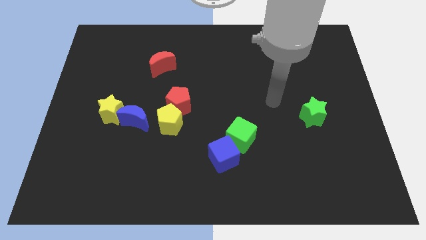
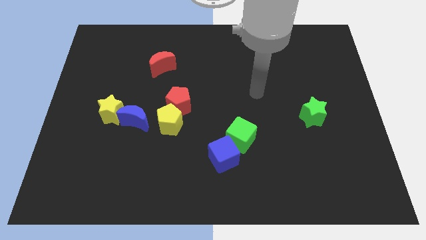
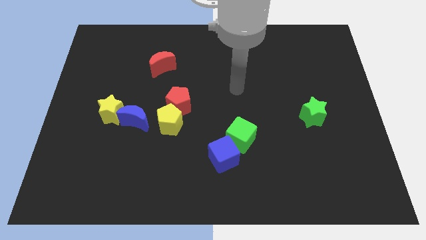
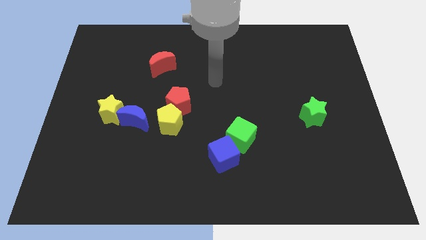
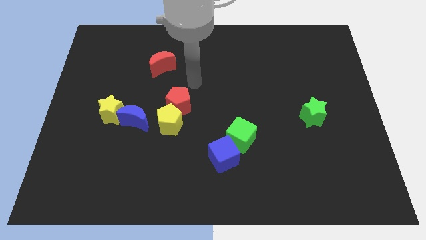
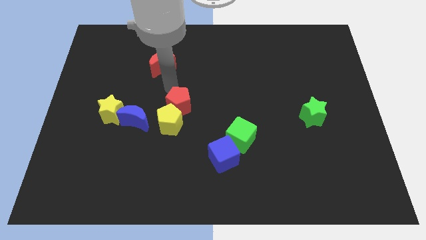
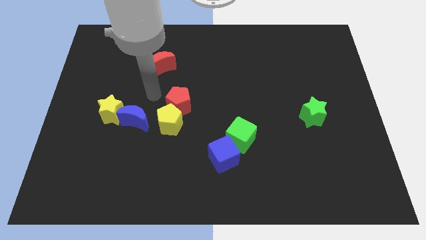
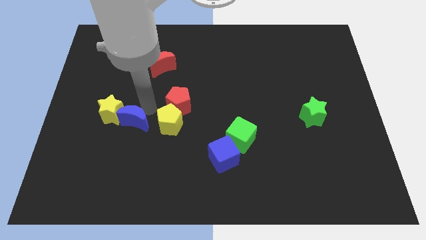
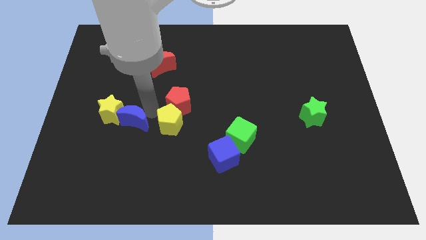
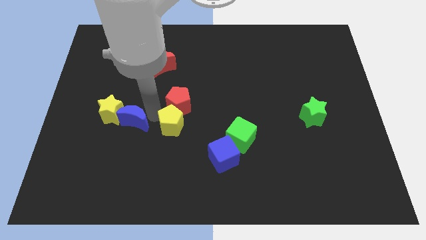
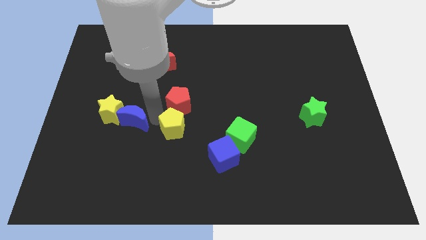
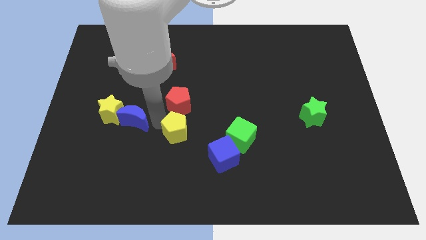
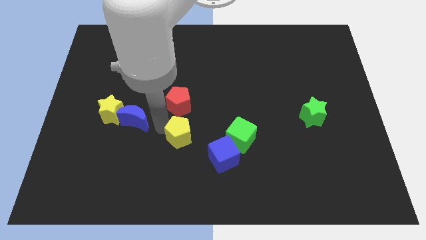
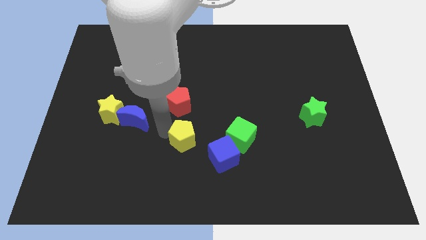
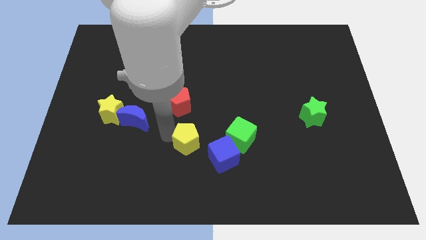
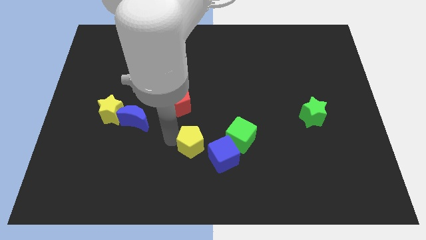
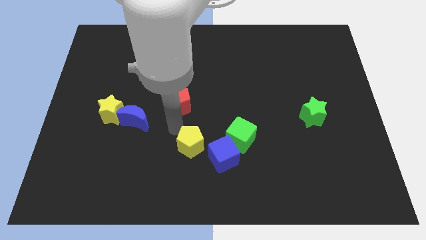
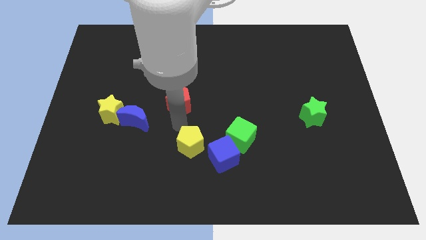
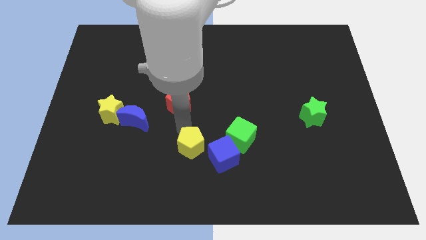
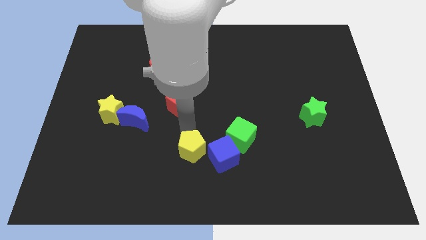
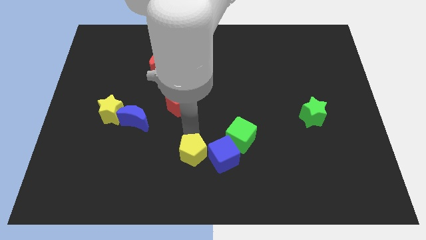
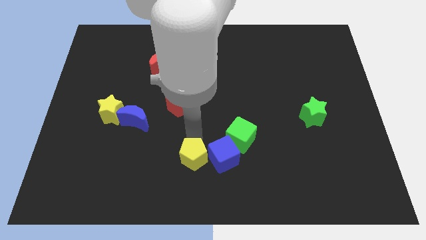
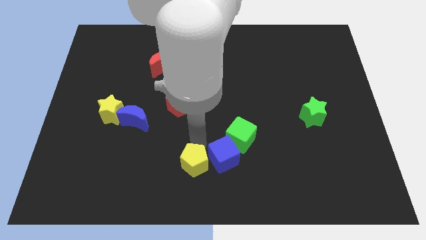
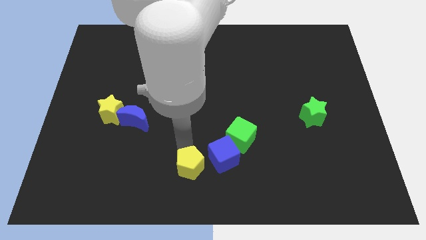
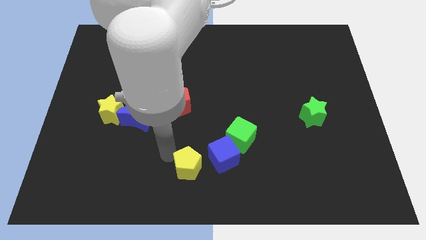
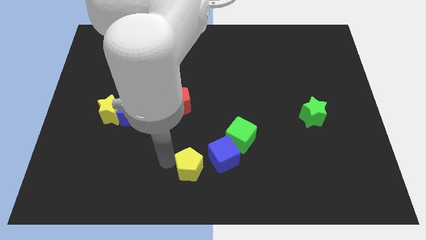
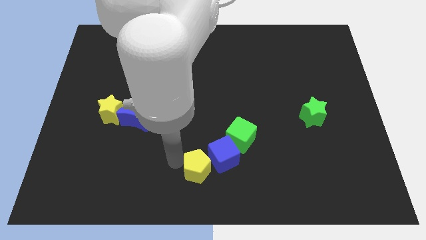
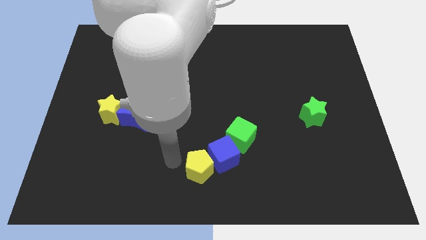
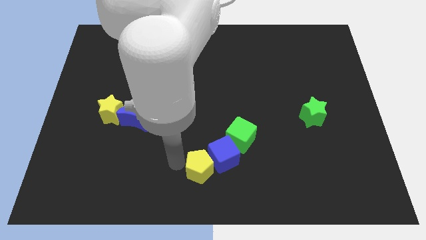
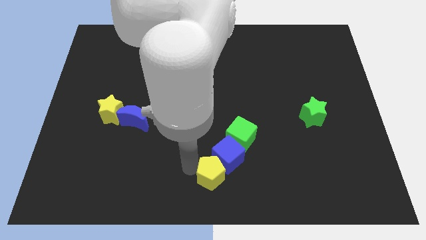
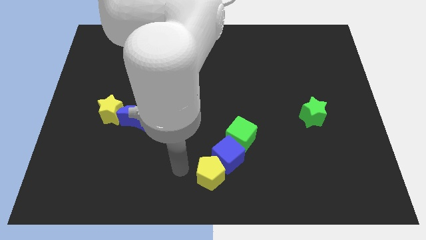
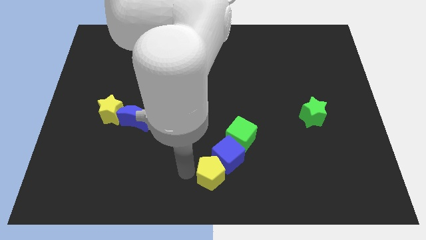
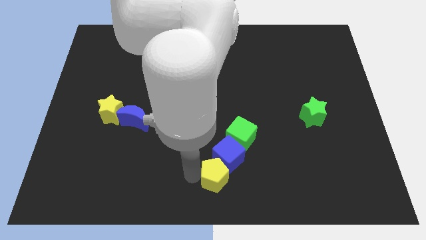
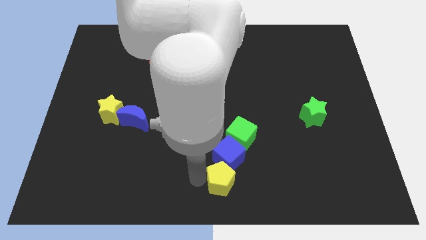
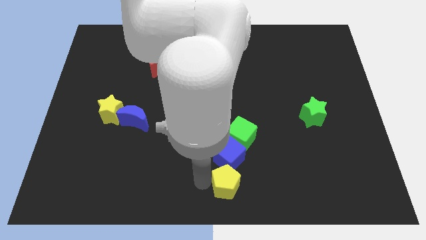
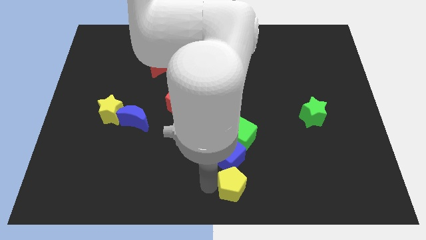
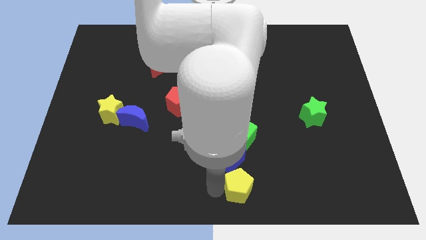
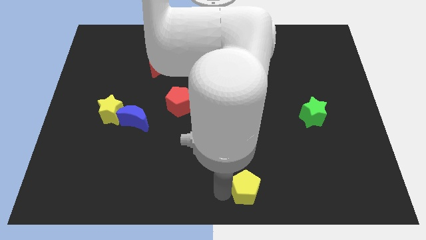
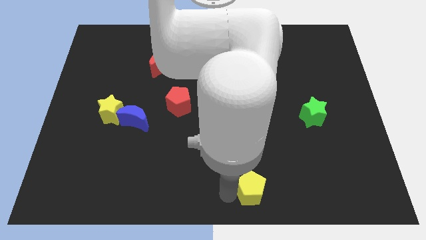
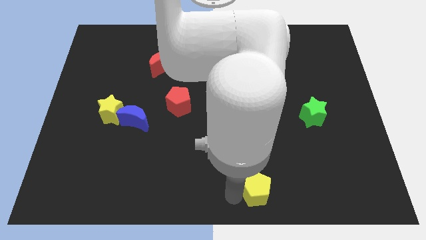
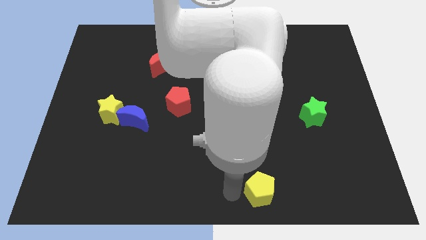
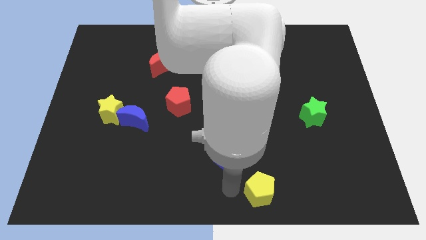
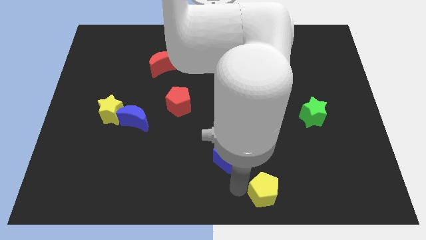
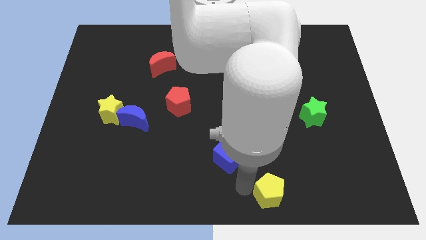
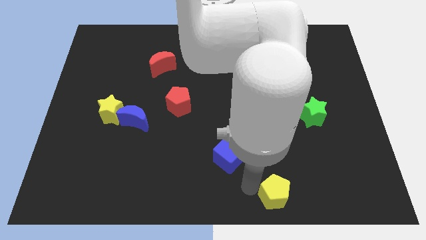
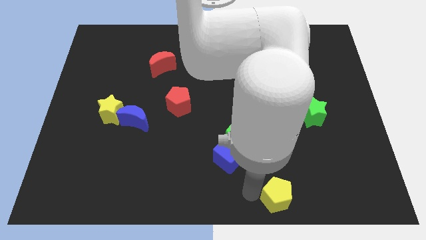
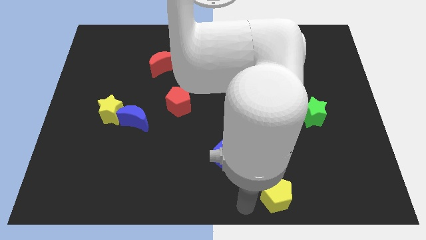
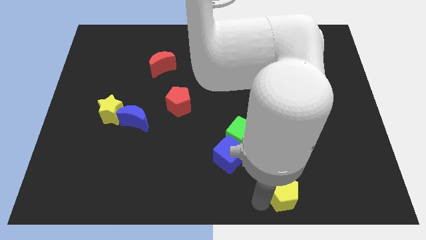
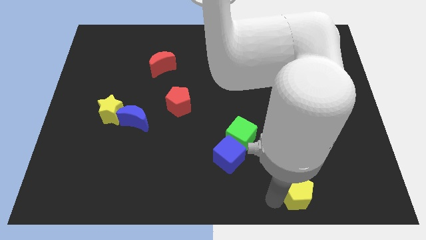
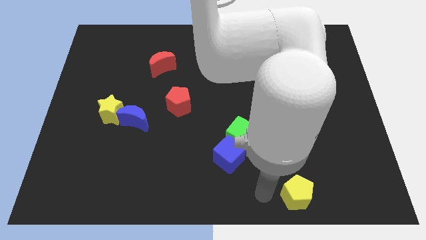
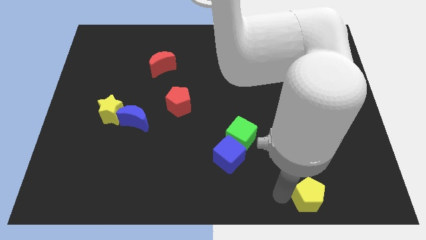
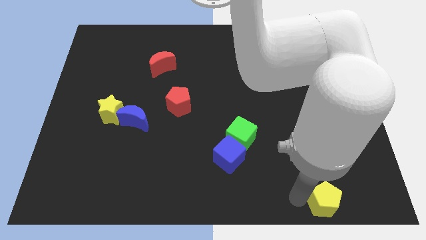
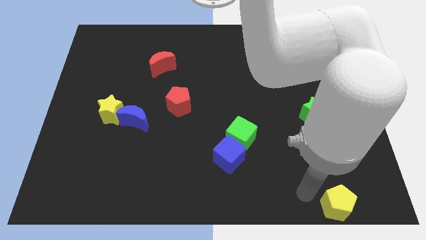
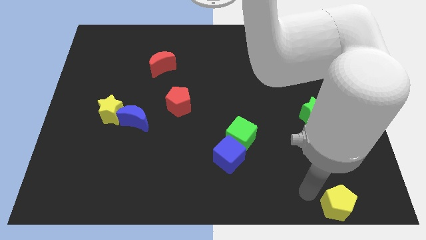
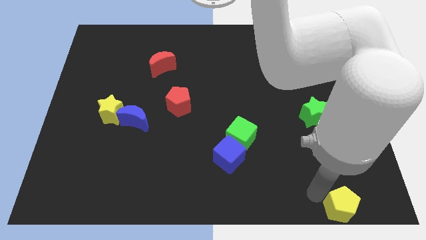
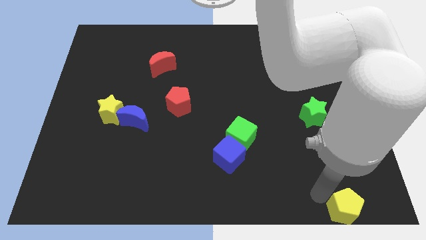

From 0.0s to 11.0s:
move the yellow pentagon to the bottom right of the board

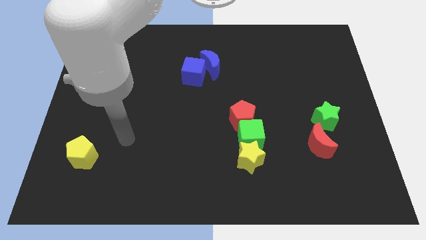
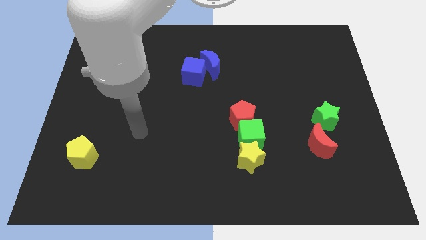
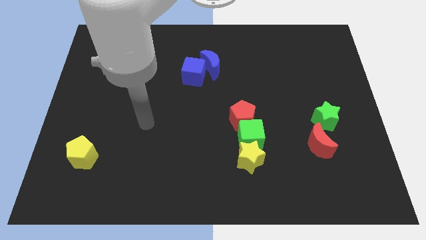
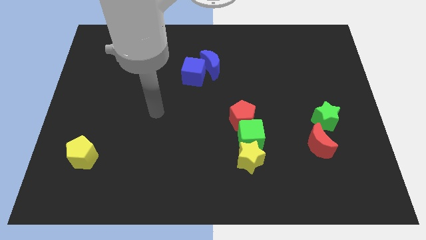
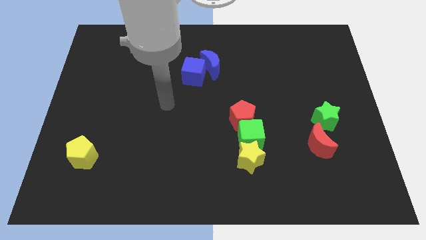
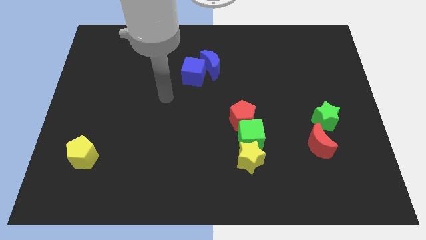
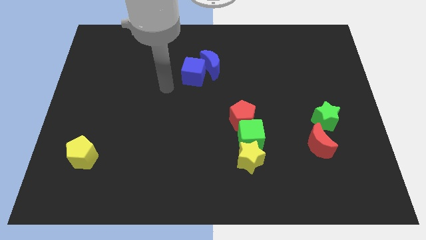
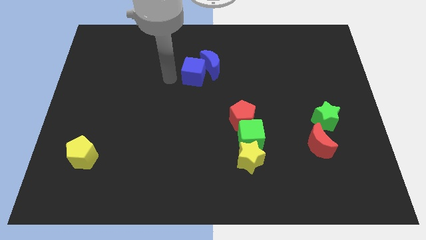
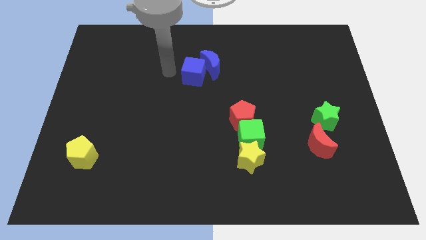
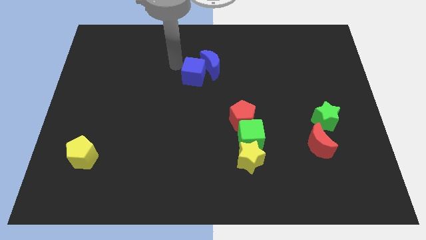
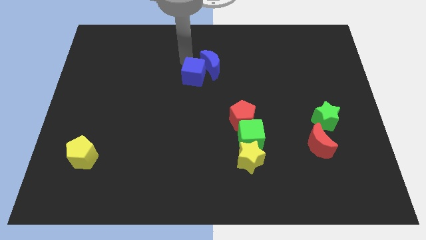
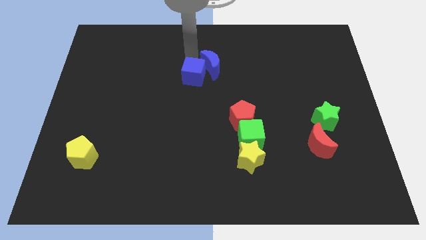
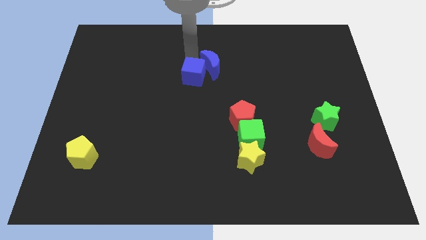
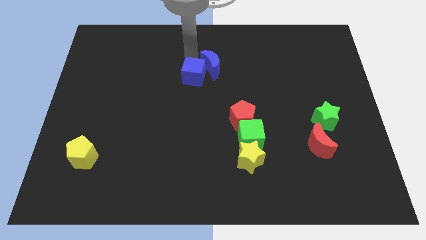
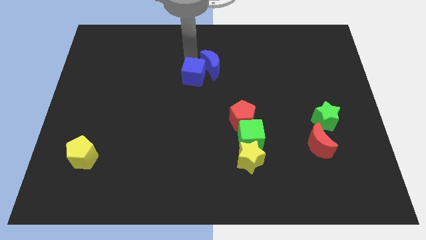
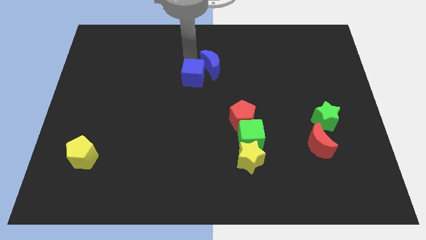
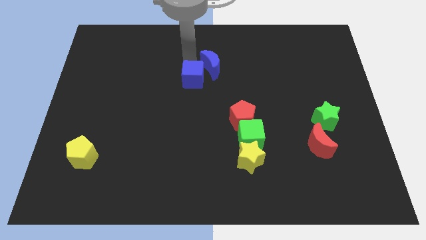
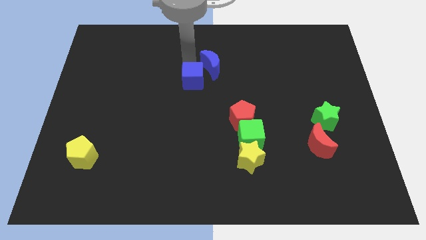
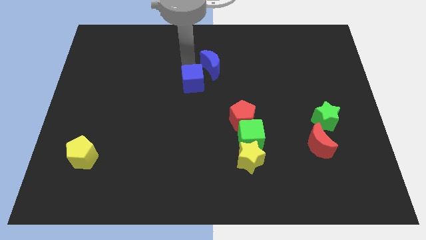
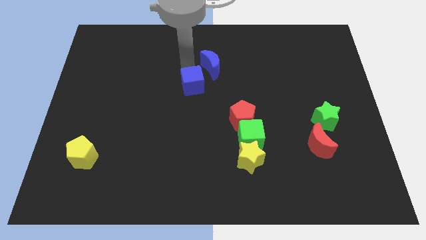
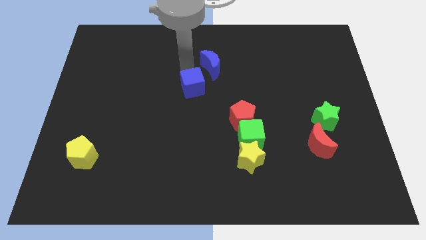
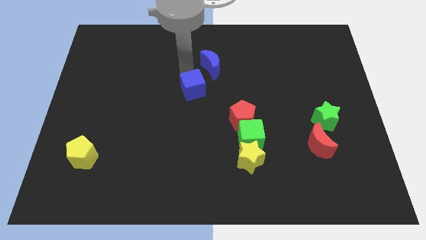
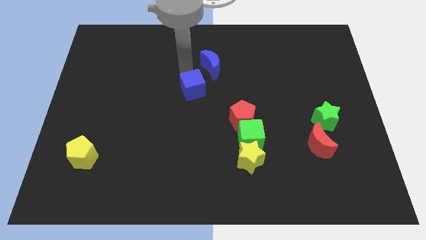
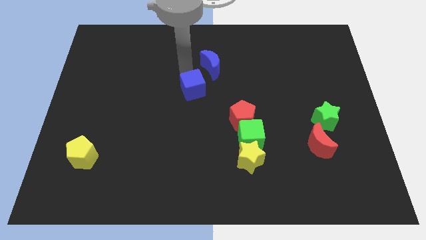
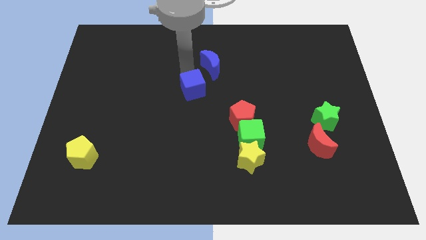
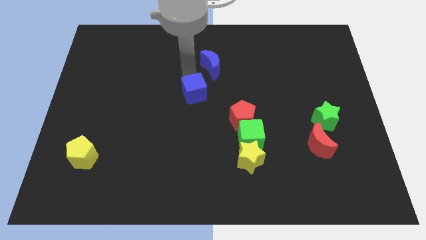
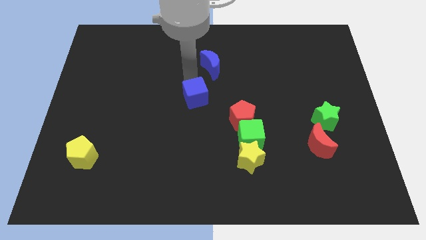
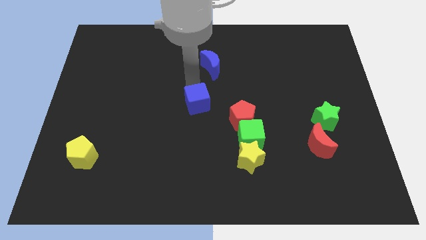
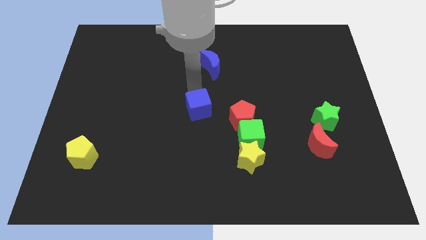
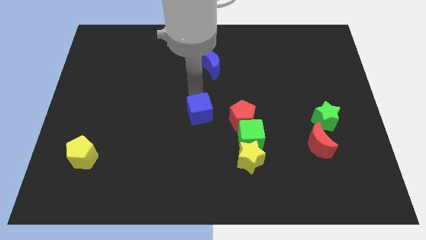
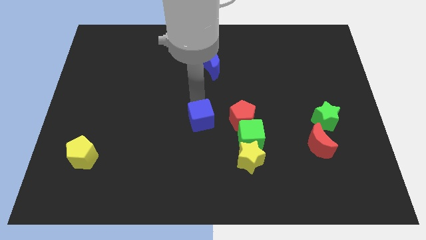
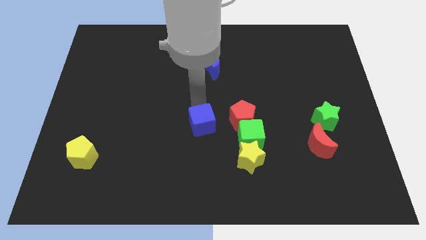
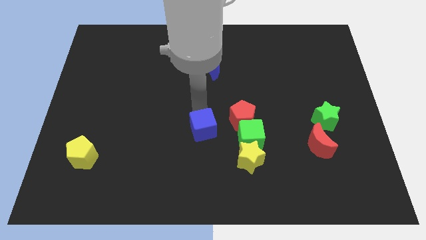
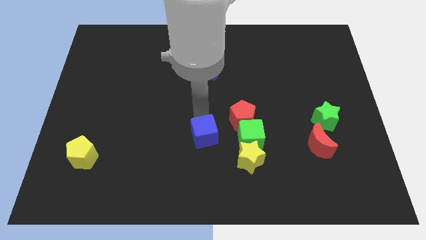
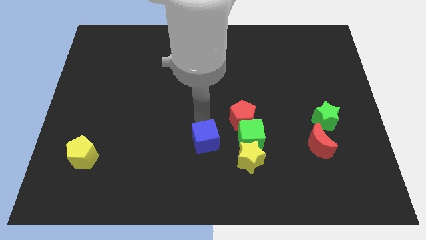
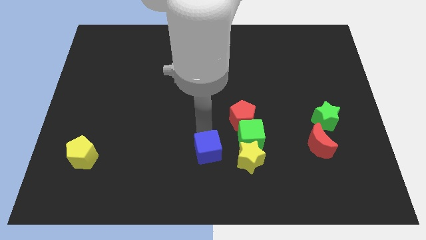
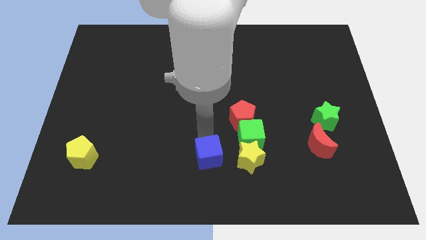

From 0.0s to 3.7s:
push the blue cube to the bottom side
